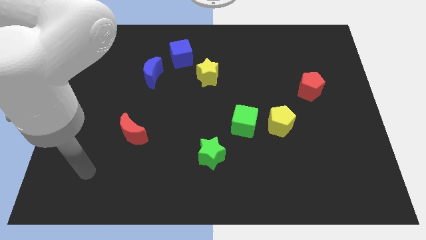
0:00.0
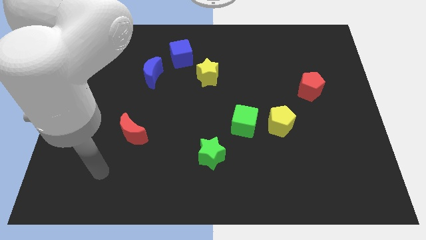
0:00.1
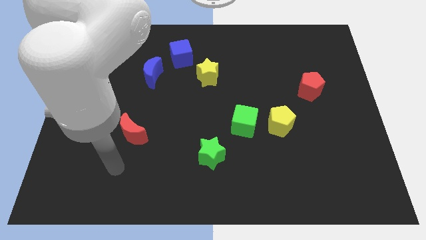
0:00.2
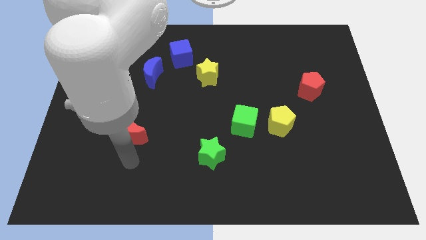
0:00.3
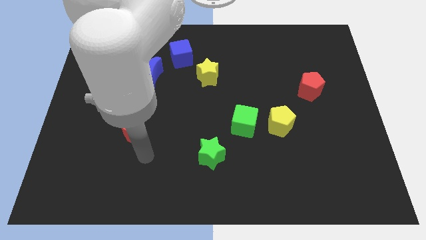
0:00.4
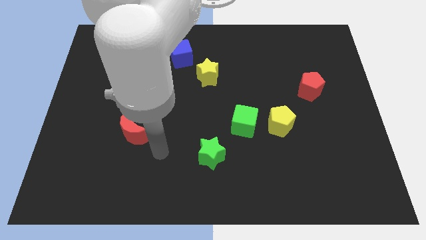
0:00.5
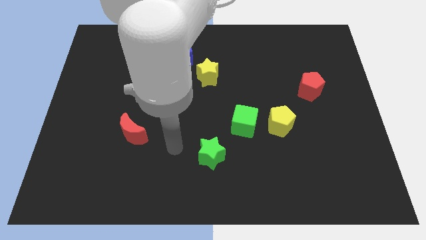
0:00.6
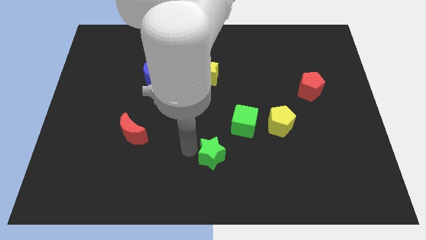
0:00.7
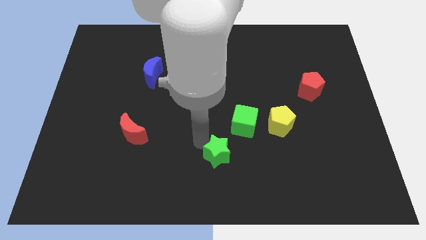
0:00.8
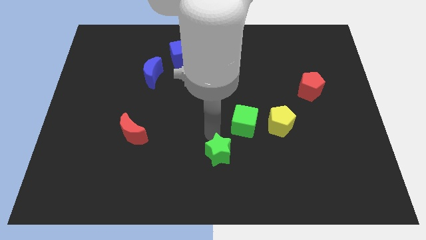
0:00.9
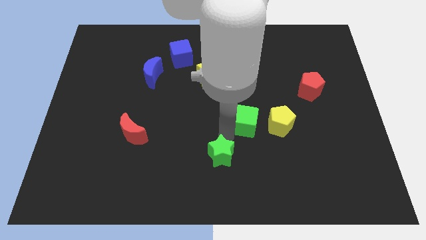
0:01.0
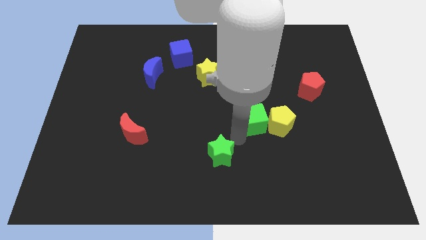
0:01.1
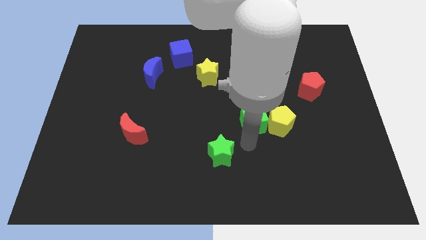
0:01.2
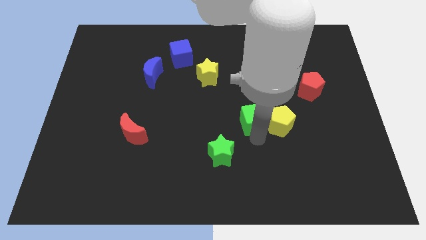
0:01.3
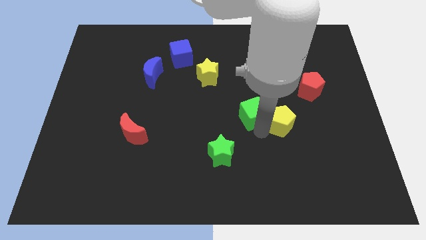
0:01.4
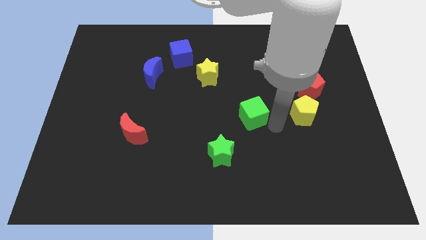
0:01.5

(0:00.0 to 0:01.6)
move the green cube away from the yellow pentagon

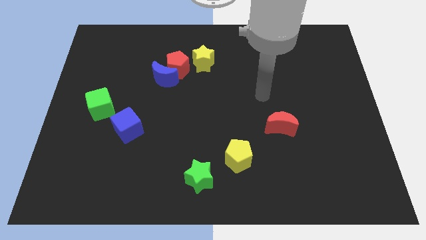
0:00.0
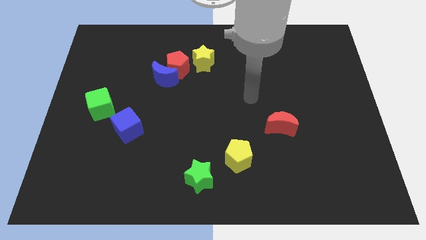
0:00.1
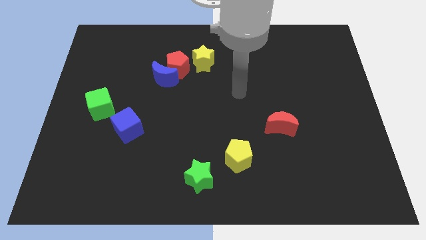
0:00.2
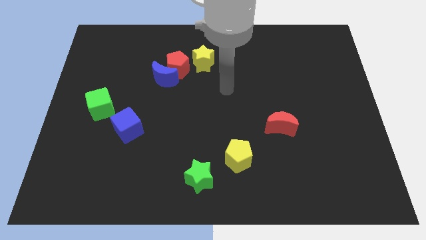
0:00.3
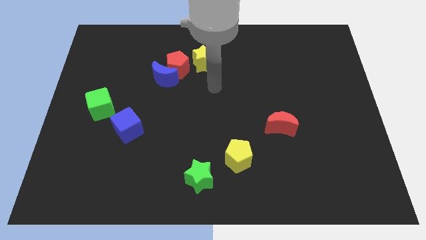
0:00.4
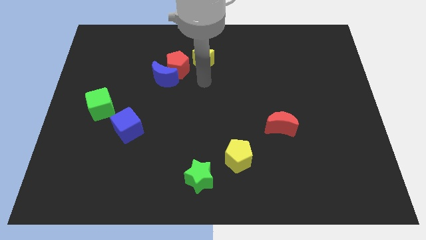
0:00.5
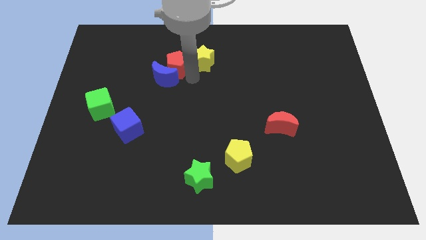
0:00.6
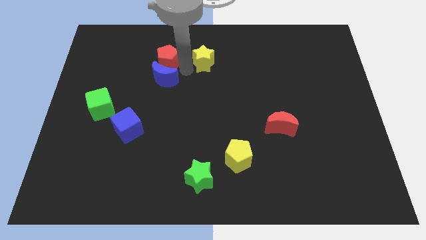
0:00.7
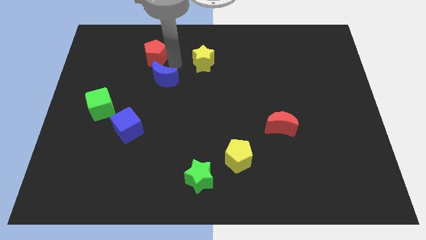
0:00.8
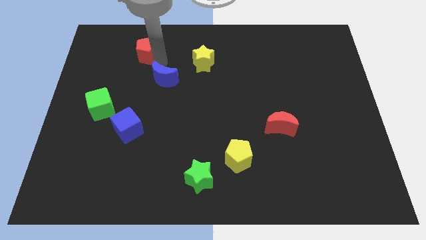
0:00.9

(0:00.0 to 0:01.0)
pull the blue moon apart from the red pentagon

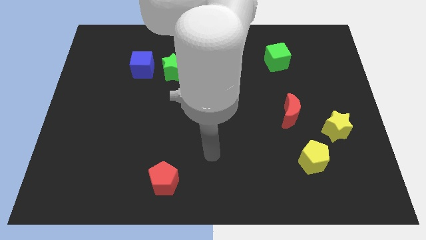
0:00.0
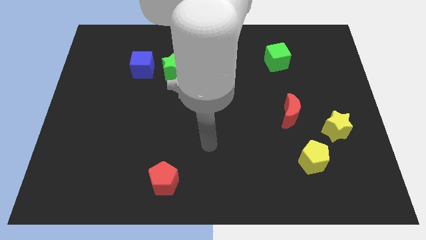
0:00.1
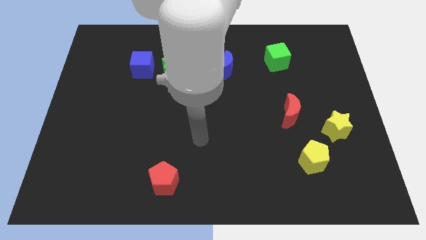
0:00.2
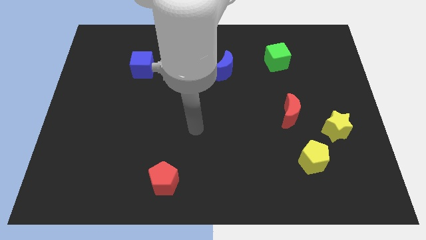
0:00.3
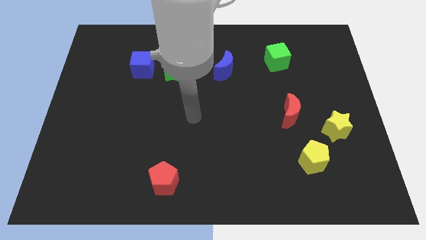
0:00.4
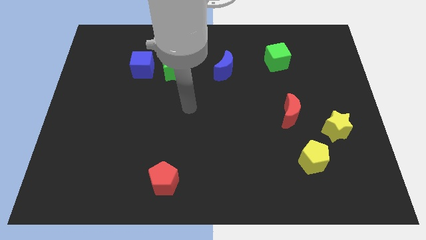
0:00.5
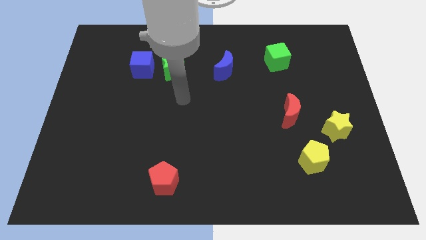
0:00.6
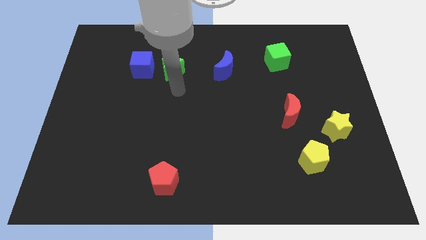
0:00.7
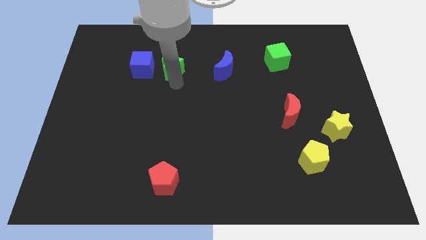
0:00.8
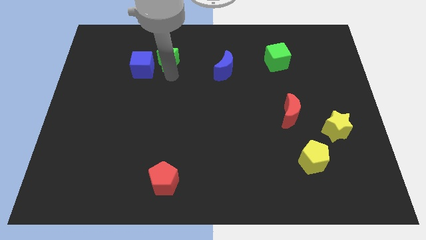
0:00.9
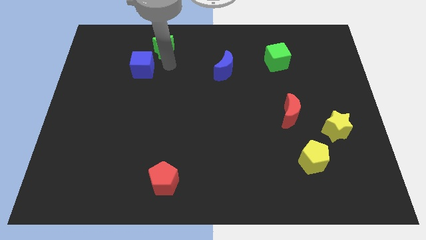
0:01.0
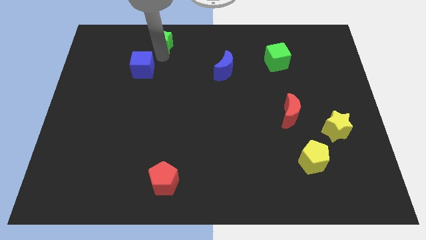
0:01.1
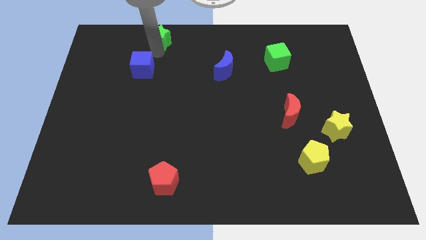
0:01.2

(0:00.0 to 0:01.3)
move the blue cube away from the green star

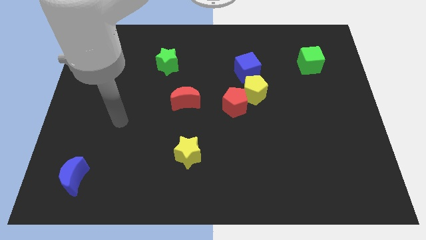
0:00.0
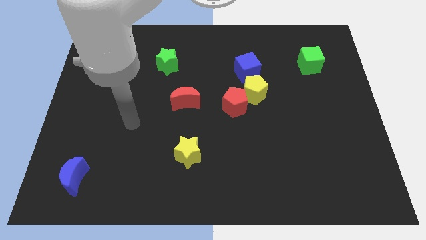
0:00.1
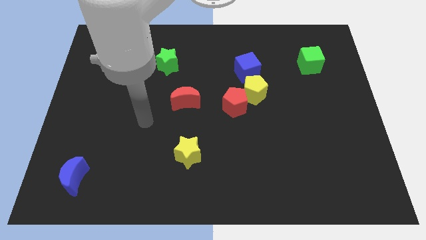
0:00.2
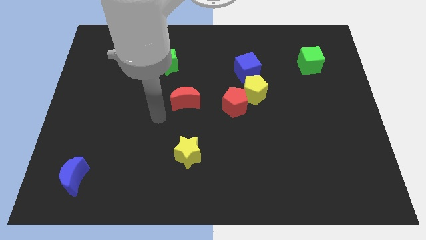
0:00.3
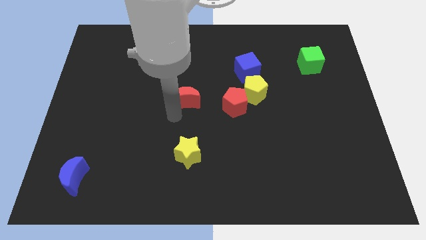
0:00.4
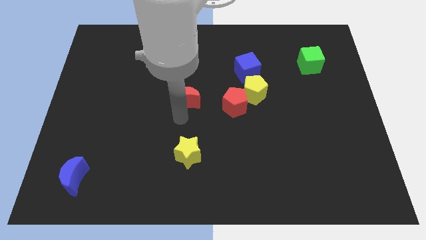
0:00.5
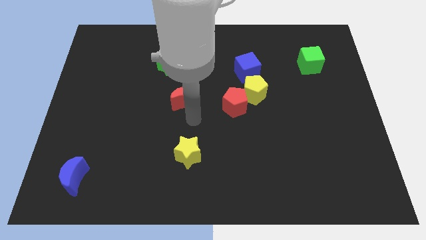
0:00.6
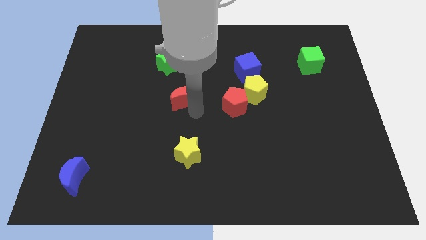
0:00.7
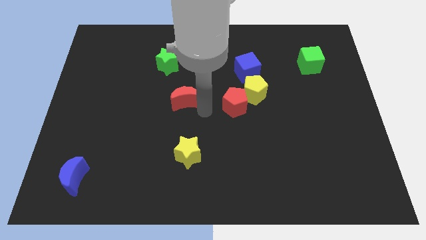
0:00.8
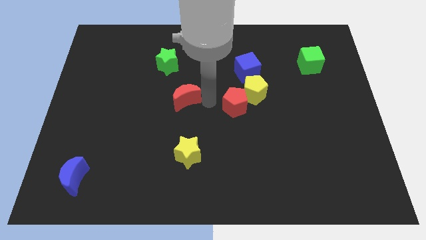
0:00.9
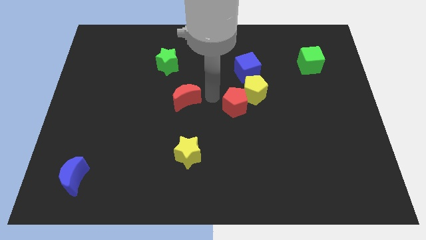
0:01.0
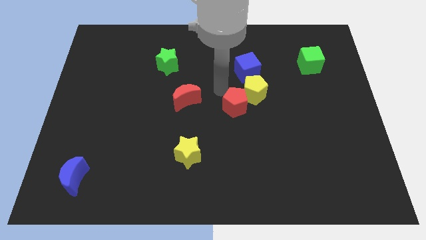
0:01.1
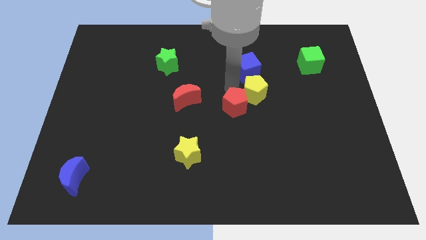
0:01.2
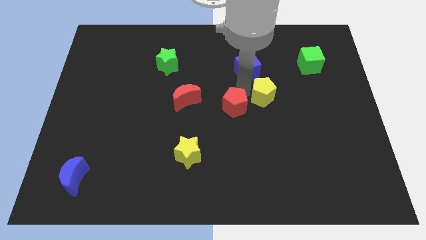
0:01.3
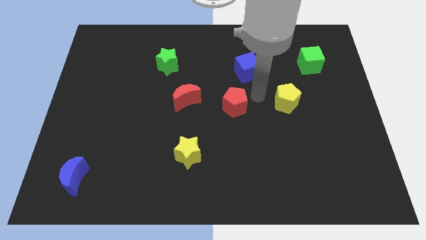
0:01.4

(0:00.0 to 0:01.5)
pull the red pentagon apart from the yellow pentagon

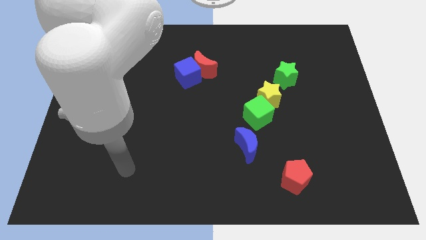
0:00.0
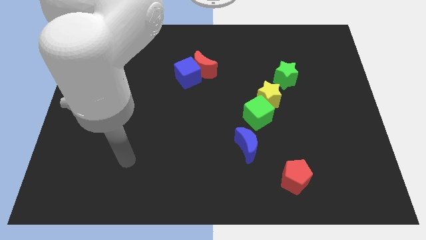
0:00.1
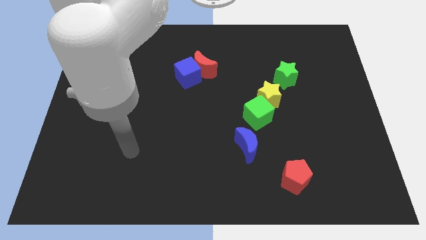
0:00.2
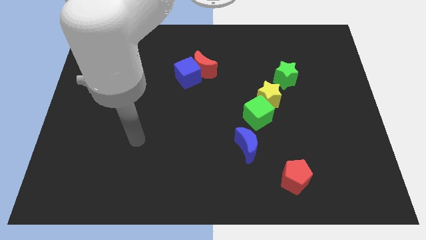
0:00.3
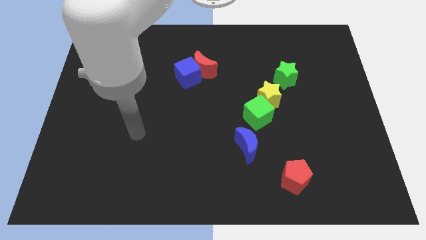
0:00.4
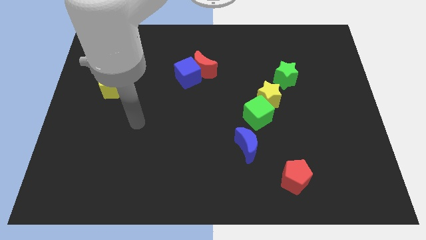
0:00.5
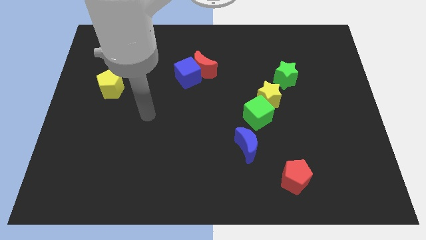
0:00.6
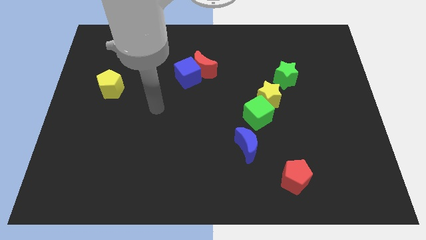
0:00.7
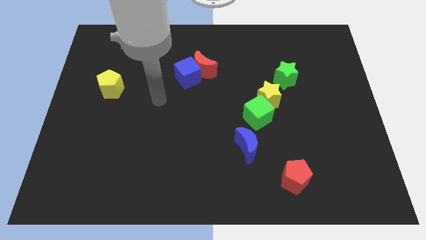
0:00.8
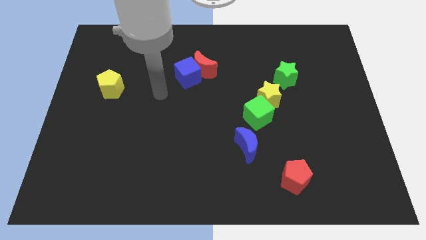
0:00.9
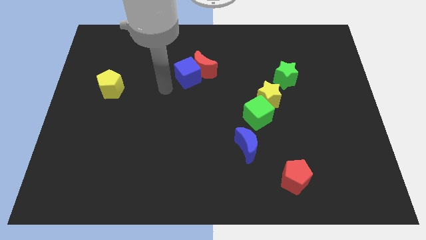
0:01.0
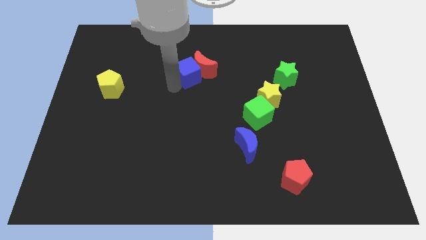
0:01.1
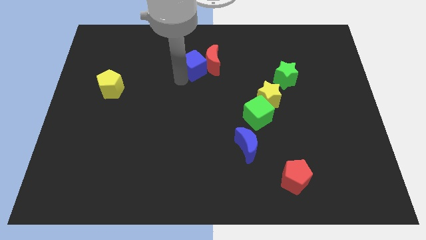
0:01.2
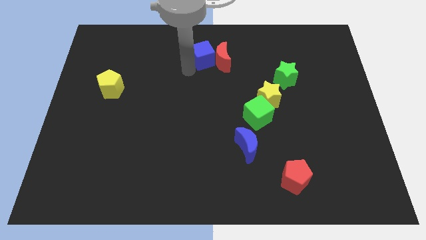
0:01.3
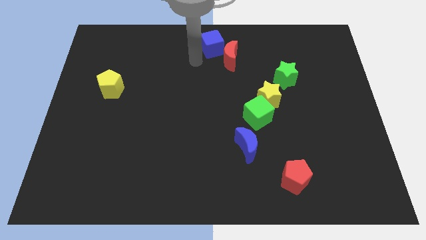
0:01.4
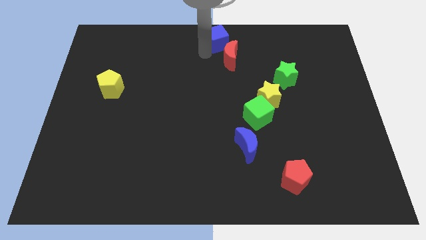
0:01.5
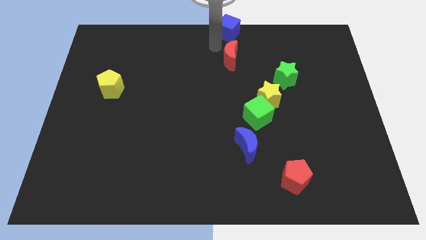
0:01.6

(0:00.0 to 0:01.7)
pull the red moon apart from the blue cube

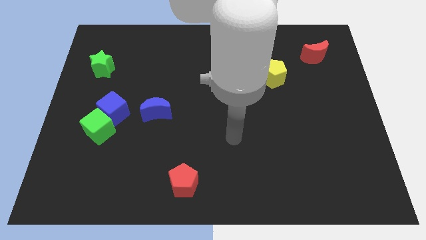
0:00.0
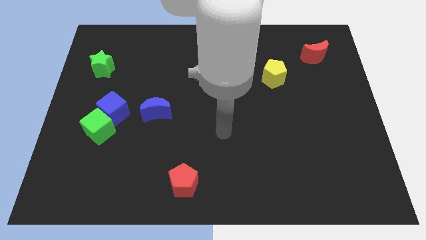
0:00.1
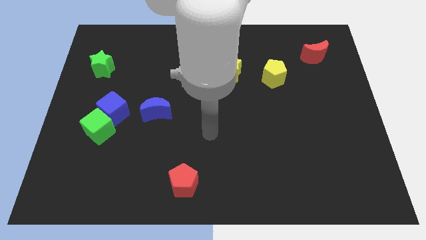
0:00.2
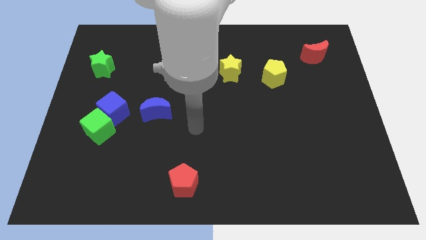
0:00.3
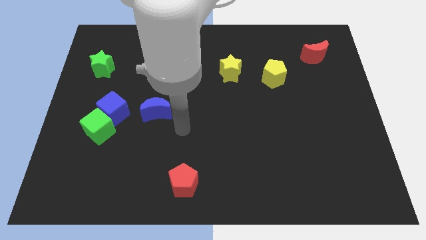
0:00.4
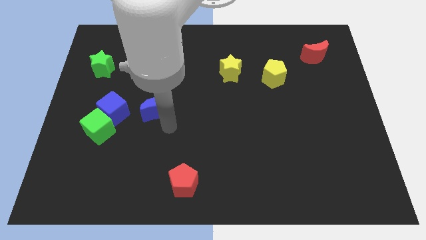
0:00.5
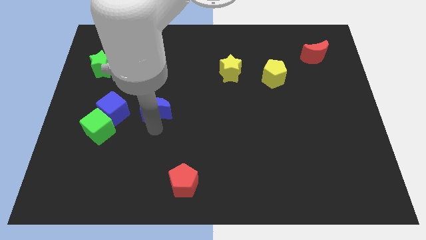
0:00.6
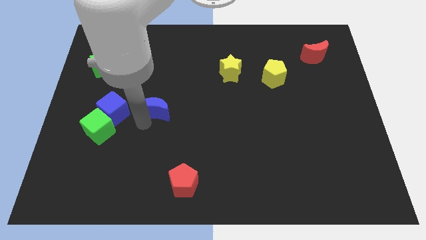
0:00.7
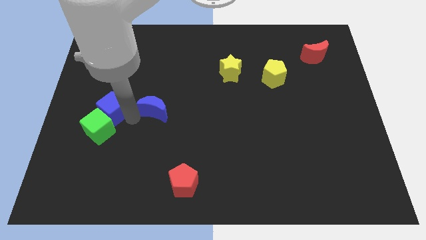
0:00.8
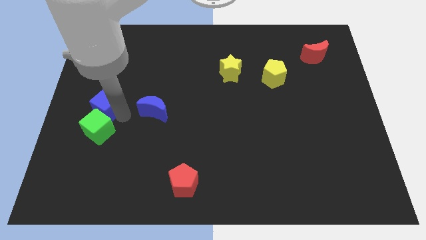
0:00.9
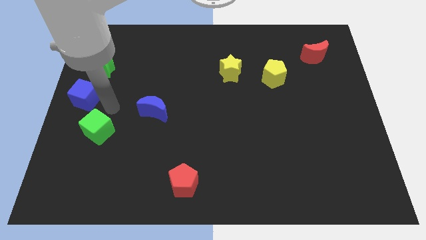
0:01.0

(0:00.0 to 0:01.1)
pull the green cube apart from the blue cube

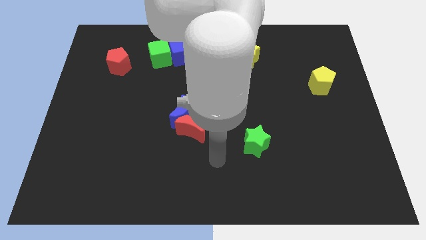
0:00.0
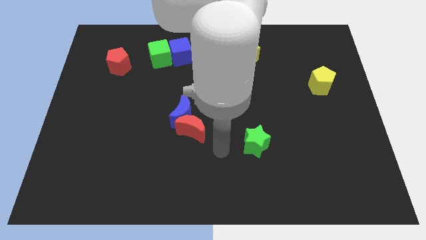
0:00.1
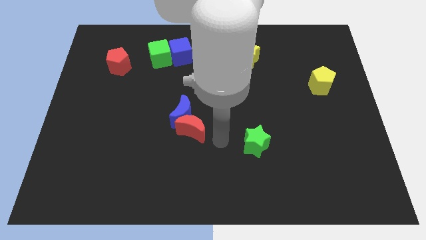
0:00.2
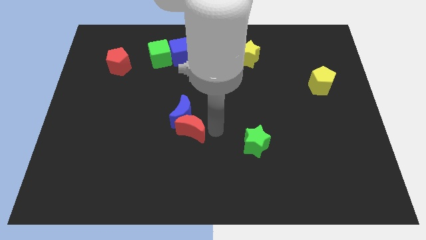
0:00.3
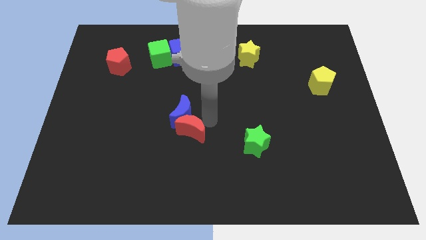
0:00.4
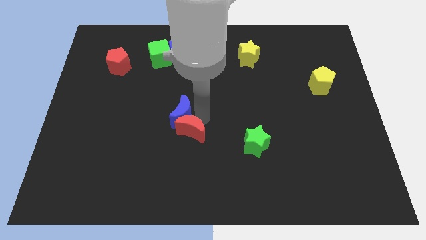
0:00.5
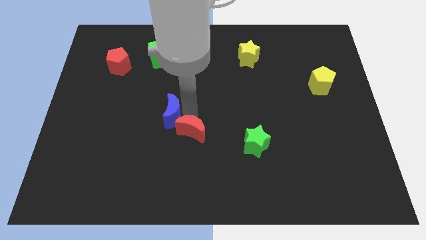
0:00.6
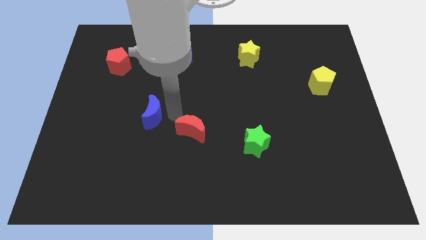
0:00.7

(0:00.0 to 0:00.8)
pull the red moon apart from the blue moon

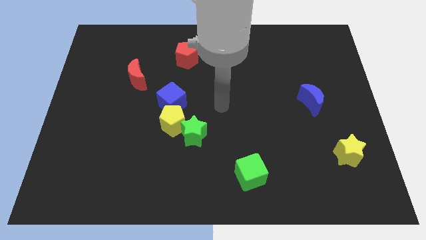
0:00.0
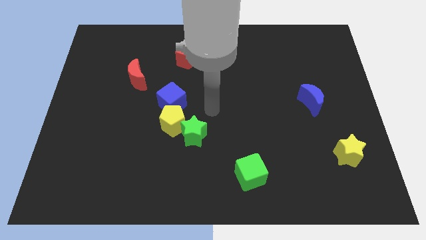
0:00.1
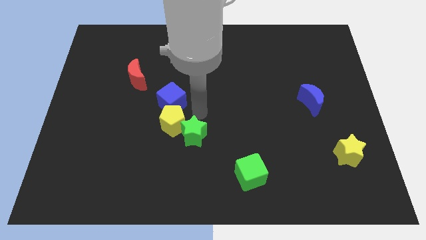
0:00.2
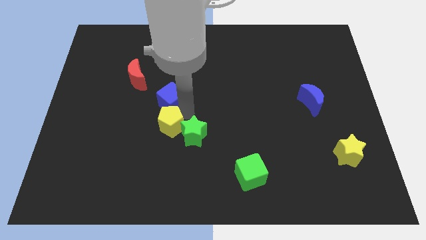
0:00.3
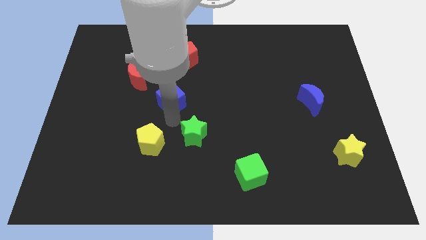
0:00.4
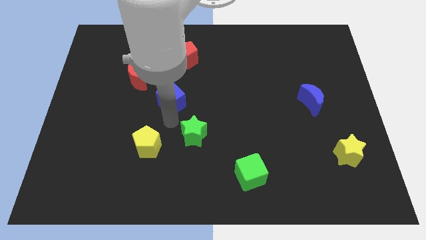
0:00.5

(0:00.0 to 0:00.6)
move the green star away from the yellow pentagon
